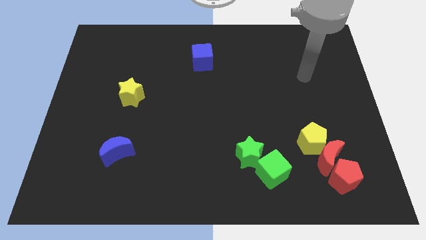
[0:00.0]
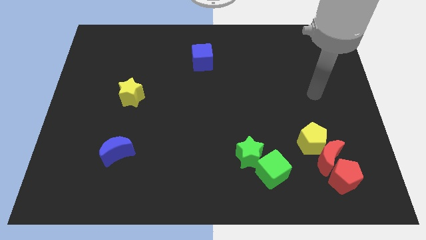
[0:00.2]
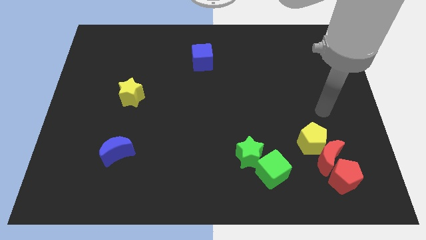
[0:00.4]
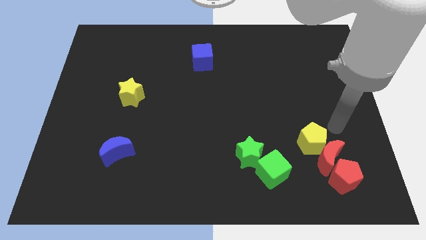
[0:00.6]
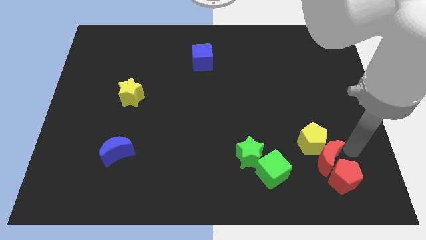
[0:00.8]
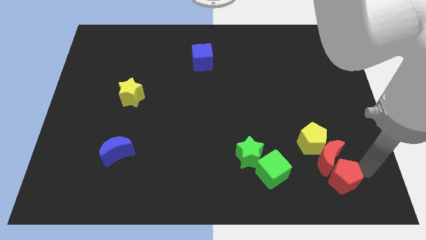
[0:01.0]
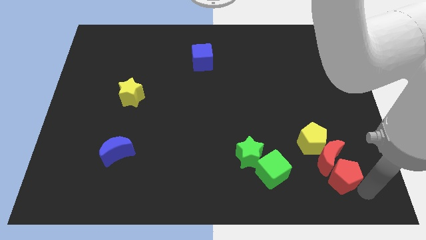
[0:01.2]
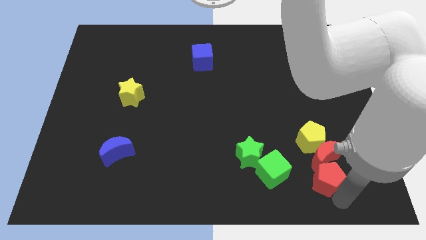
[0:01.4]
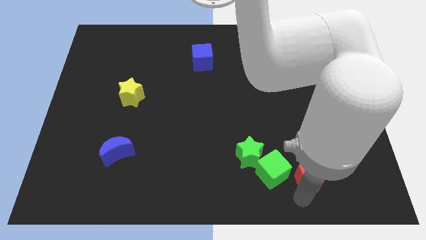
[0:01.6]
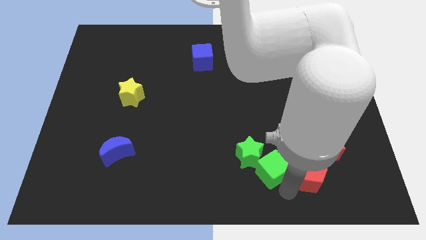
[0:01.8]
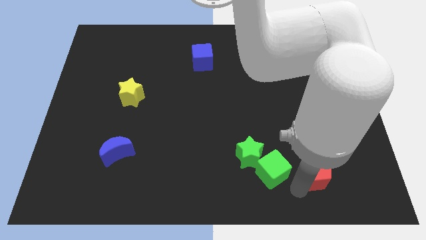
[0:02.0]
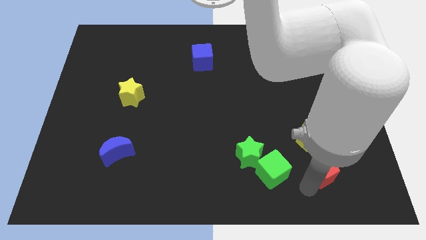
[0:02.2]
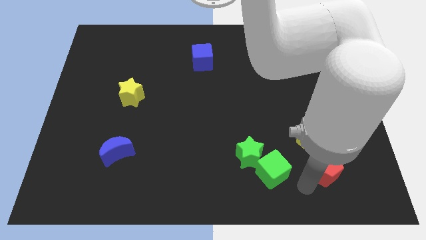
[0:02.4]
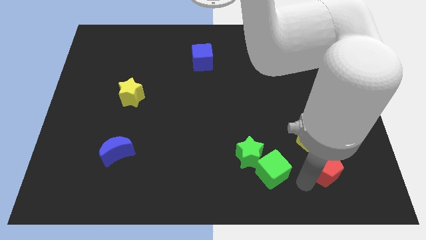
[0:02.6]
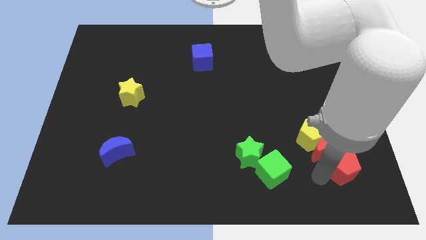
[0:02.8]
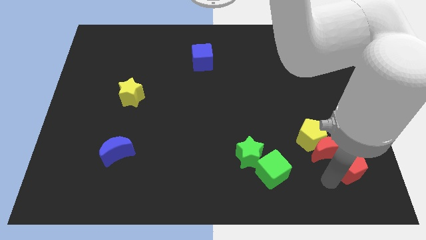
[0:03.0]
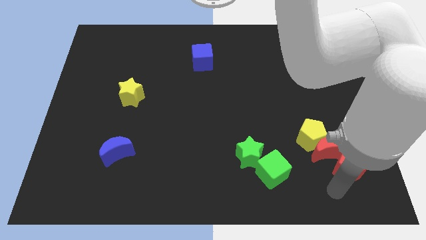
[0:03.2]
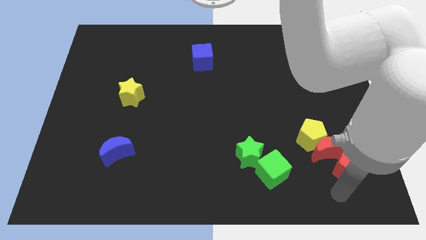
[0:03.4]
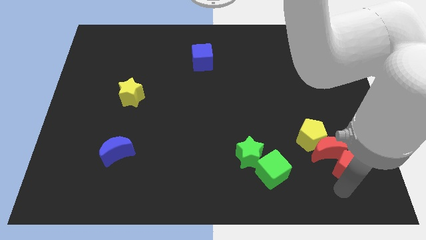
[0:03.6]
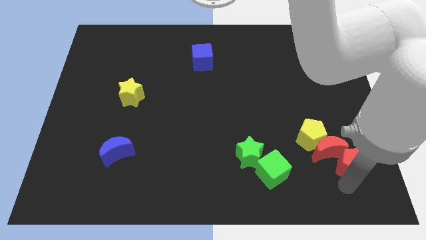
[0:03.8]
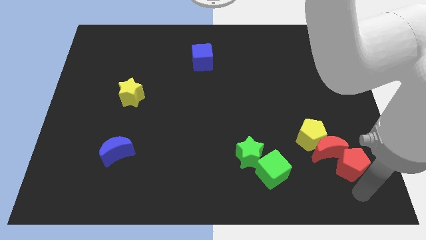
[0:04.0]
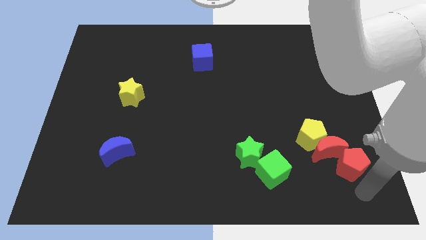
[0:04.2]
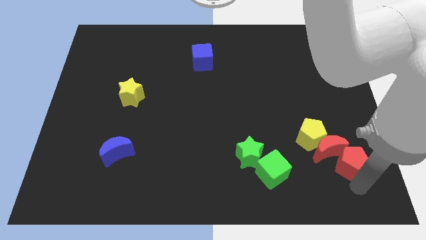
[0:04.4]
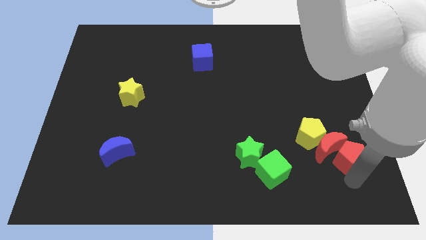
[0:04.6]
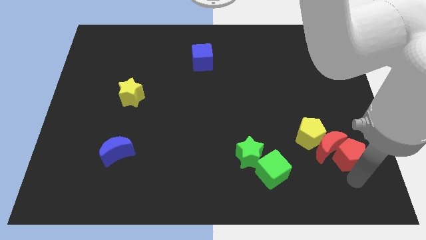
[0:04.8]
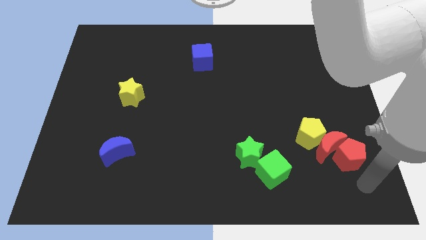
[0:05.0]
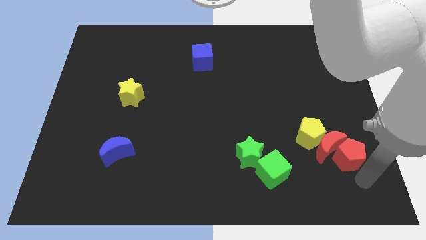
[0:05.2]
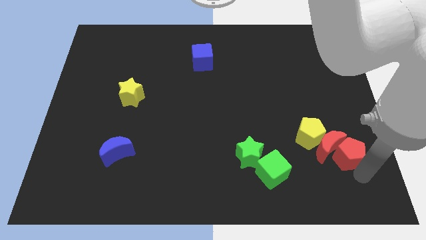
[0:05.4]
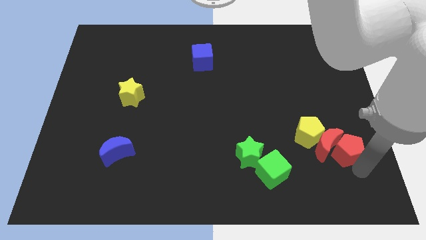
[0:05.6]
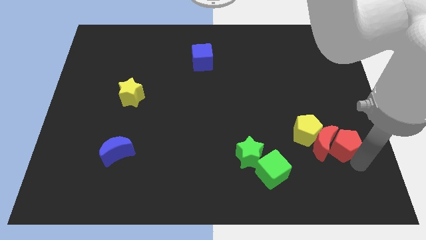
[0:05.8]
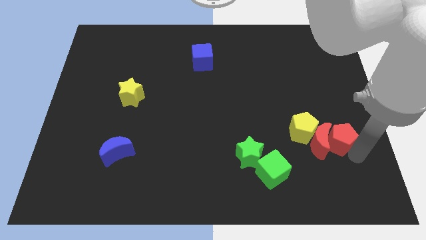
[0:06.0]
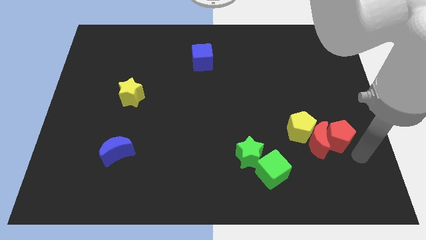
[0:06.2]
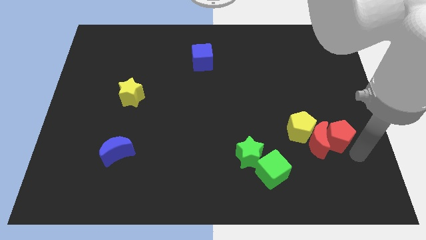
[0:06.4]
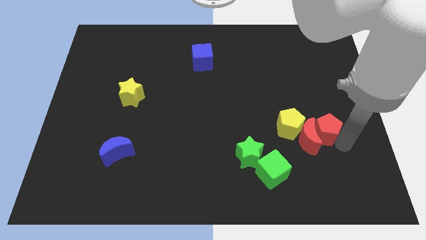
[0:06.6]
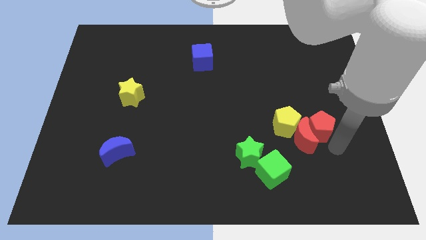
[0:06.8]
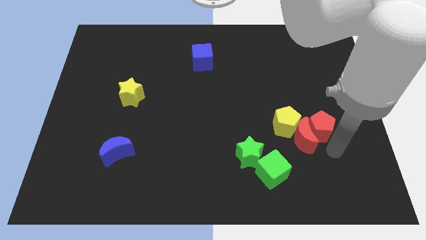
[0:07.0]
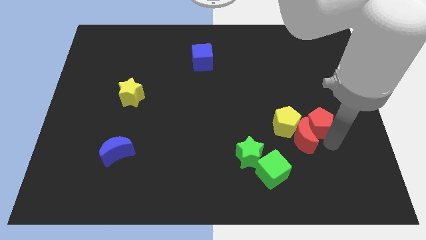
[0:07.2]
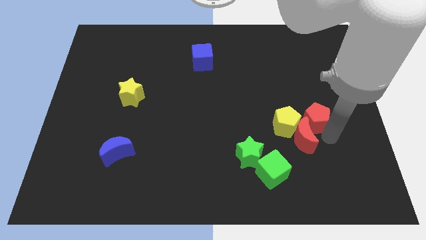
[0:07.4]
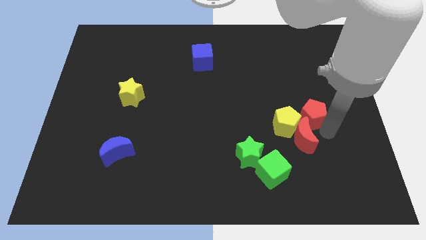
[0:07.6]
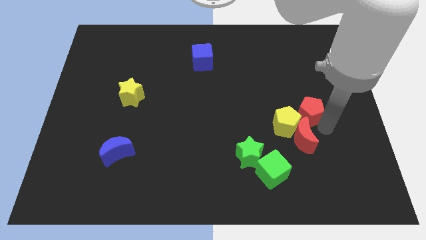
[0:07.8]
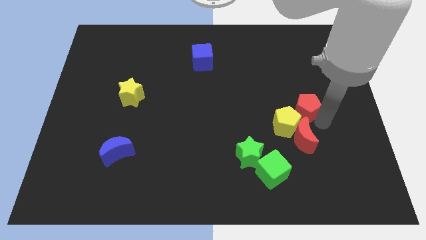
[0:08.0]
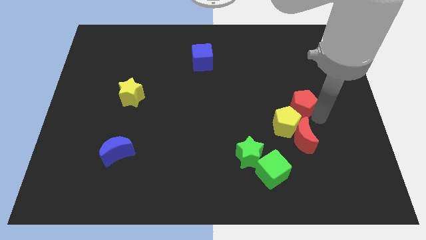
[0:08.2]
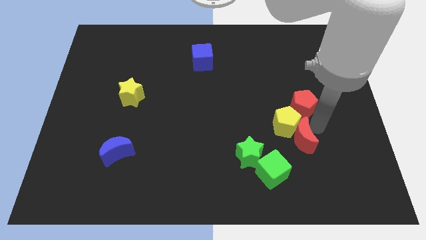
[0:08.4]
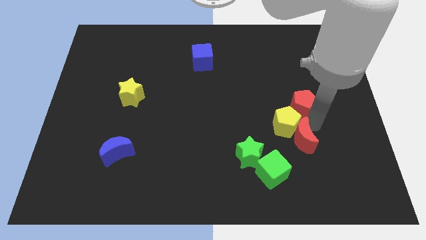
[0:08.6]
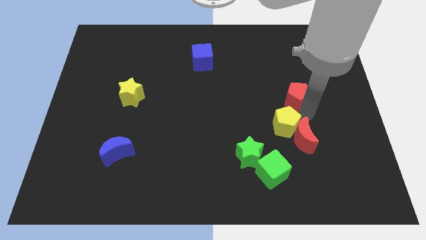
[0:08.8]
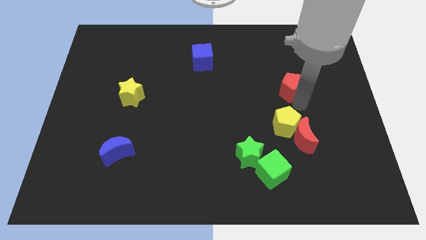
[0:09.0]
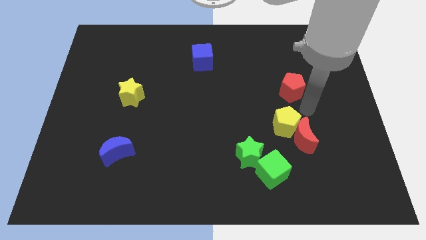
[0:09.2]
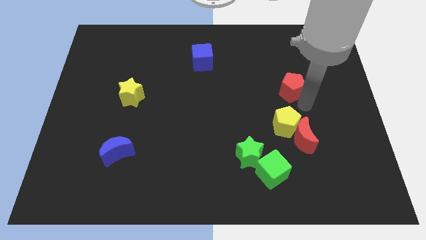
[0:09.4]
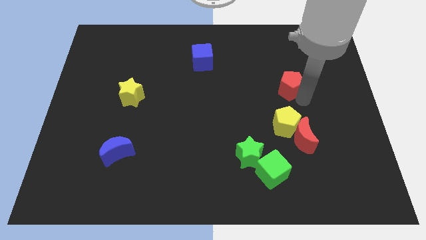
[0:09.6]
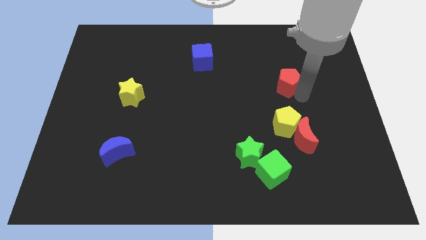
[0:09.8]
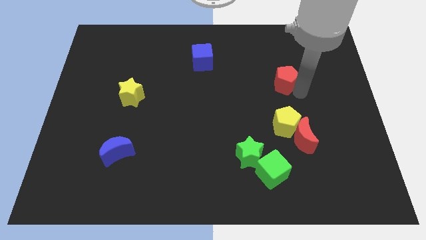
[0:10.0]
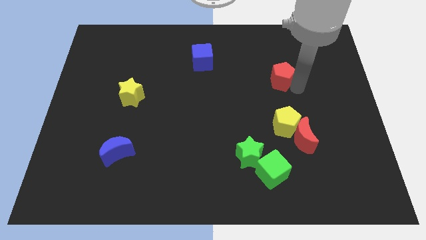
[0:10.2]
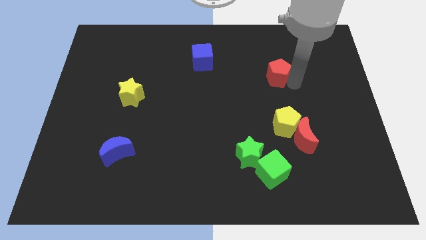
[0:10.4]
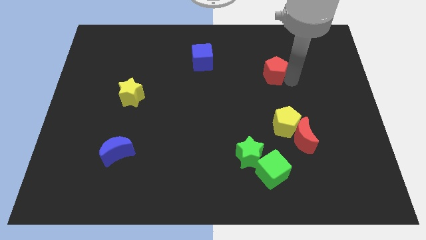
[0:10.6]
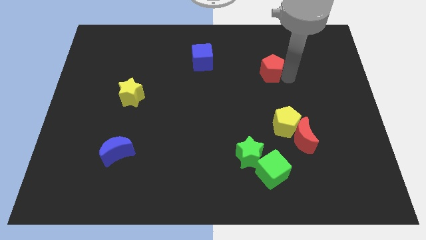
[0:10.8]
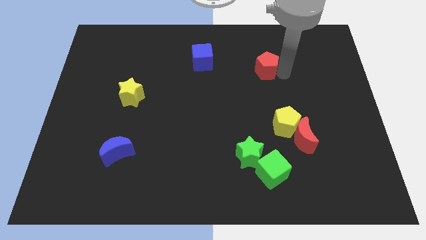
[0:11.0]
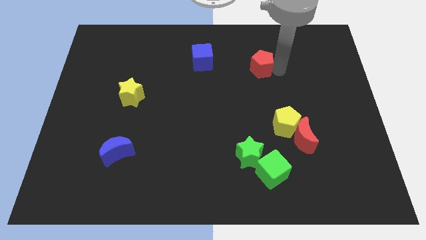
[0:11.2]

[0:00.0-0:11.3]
push the red pentagon to the right of the blue cube

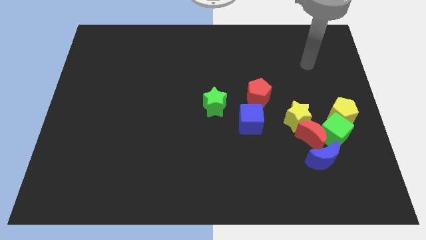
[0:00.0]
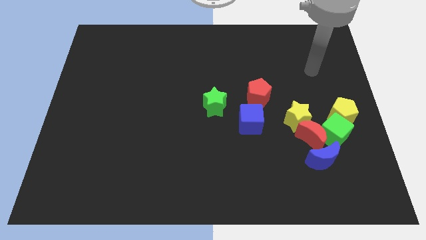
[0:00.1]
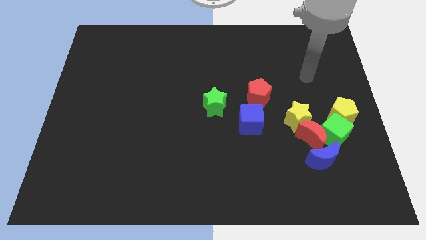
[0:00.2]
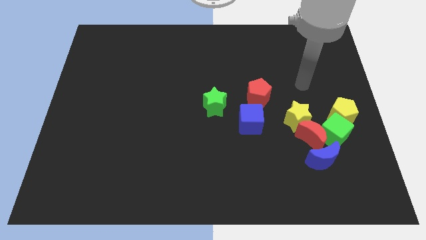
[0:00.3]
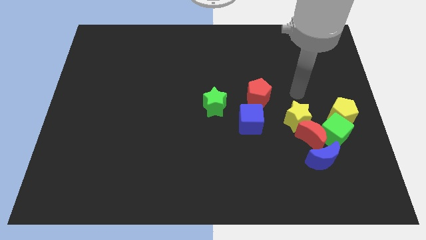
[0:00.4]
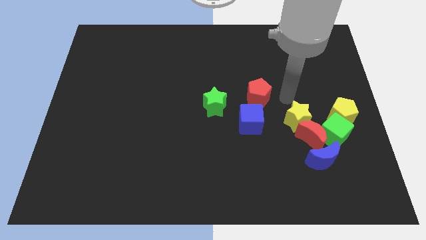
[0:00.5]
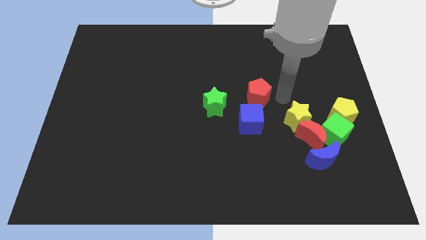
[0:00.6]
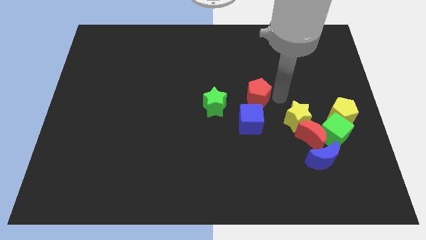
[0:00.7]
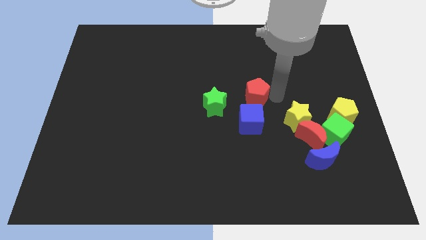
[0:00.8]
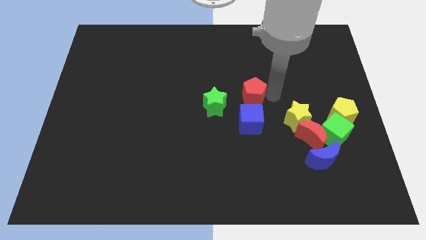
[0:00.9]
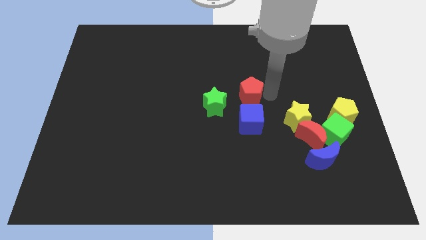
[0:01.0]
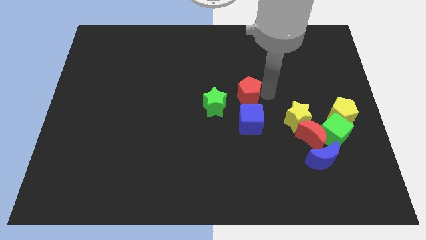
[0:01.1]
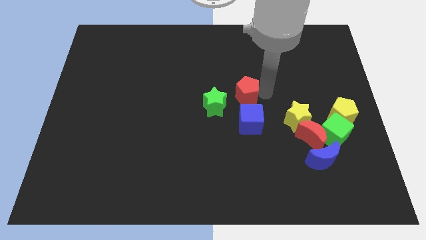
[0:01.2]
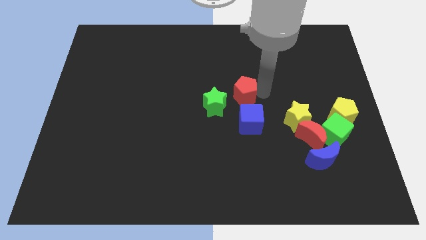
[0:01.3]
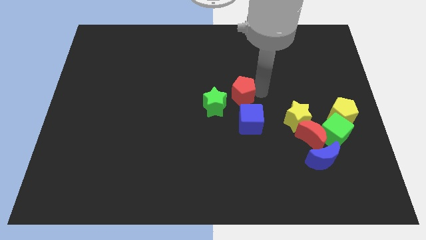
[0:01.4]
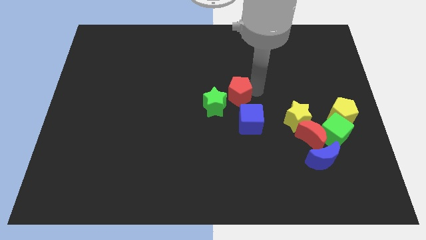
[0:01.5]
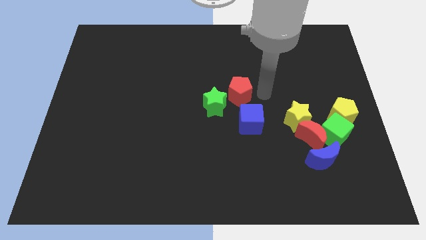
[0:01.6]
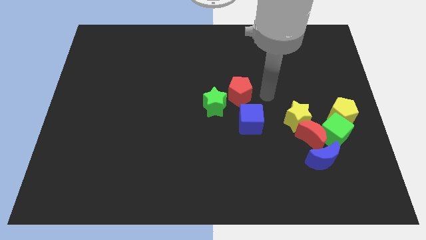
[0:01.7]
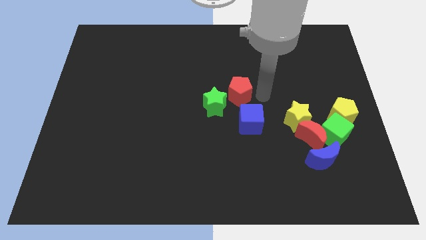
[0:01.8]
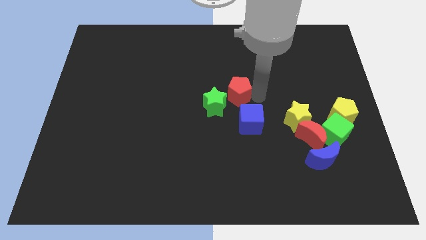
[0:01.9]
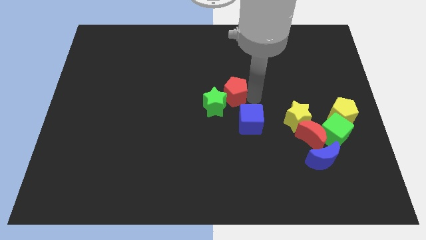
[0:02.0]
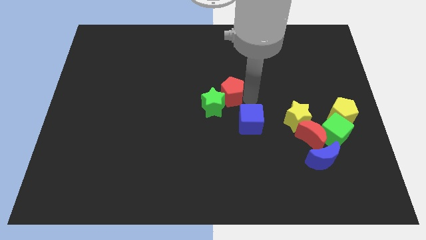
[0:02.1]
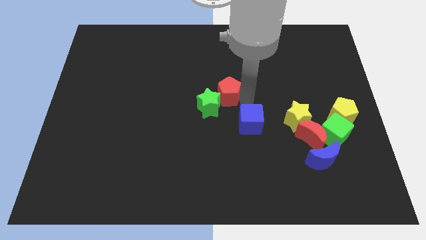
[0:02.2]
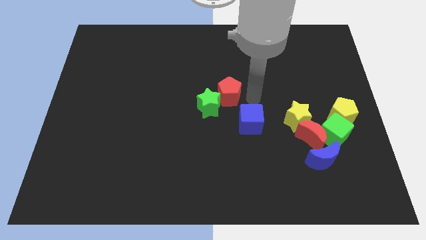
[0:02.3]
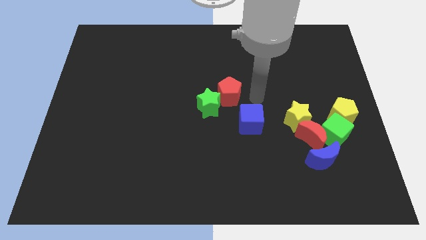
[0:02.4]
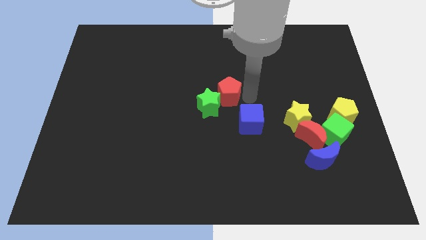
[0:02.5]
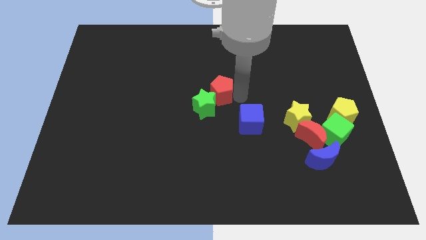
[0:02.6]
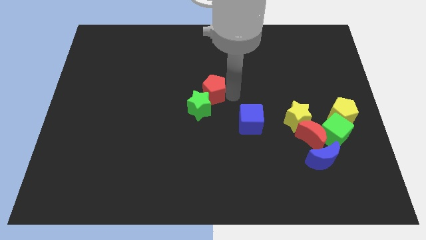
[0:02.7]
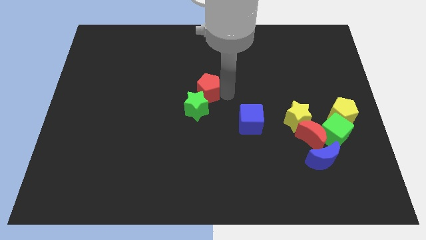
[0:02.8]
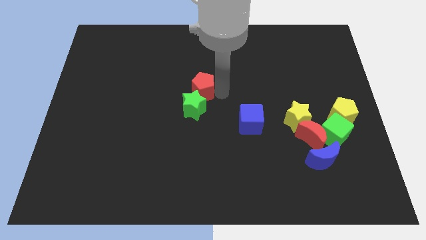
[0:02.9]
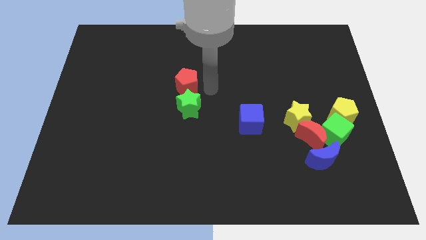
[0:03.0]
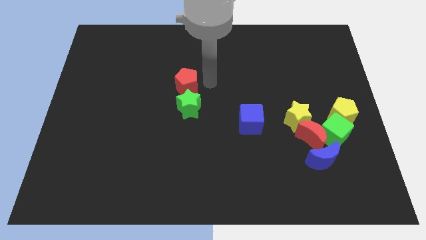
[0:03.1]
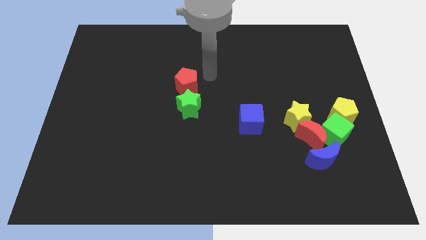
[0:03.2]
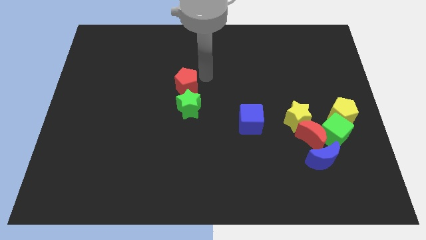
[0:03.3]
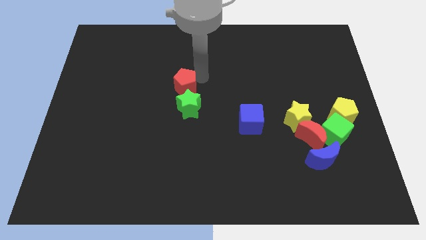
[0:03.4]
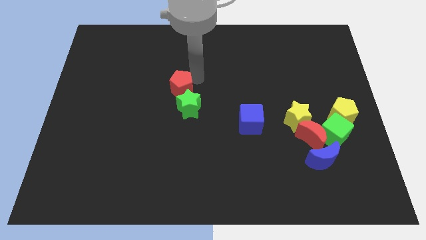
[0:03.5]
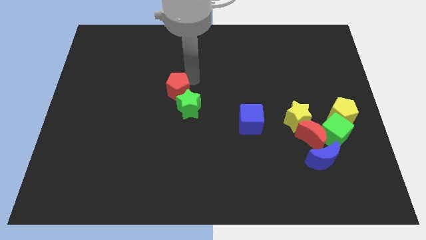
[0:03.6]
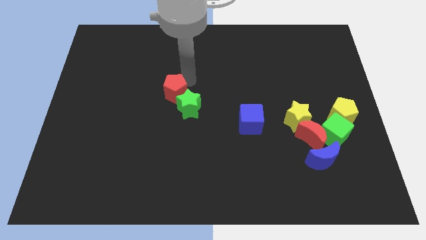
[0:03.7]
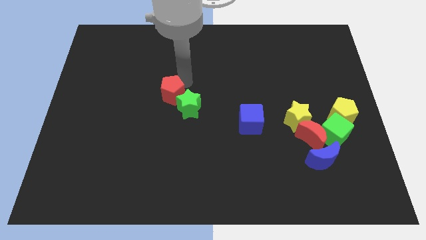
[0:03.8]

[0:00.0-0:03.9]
put the red pentagon to the left side of the green star
